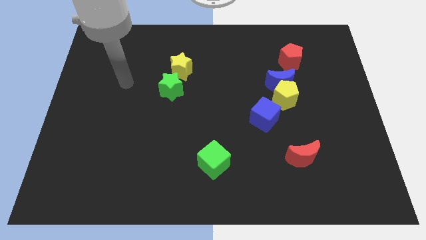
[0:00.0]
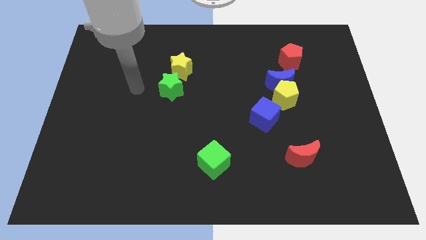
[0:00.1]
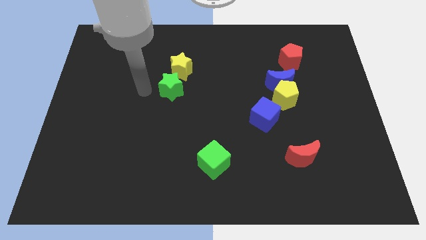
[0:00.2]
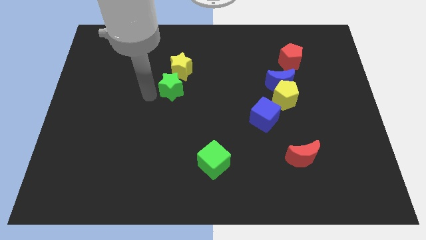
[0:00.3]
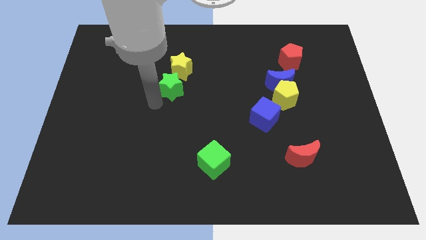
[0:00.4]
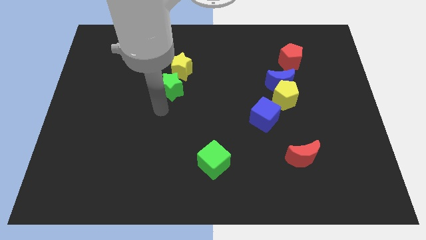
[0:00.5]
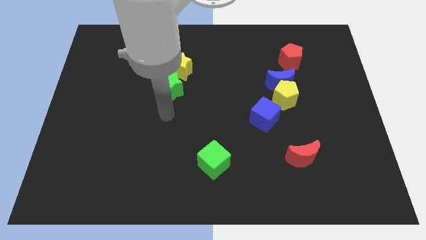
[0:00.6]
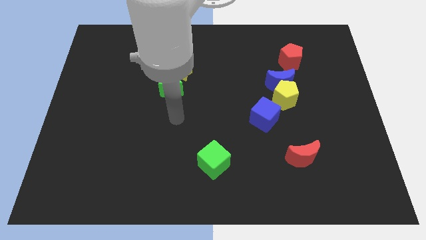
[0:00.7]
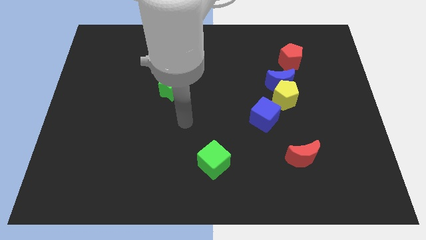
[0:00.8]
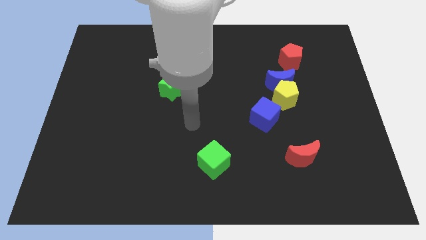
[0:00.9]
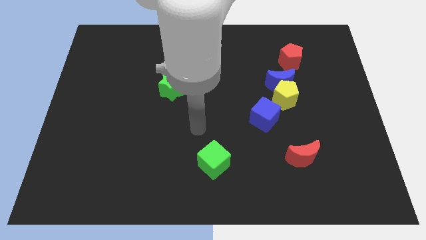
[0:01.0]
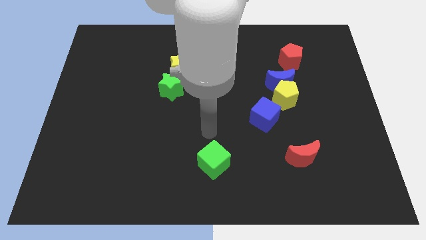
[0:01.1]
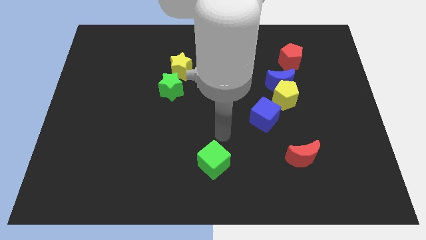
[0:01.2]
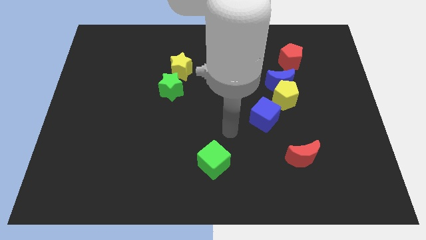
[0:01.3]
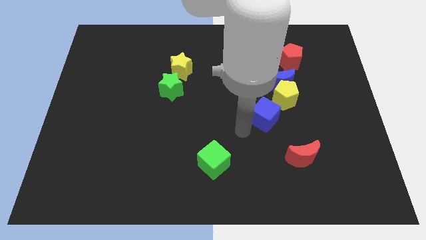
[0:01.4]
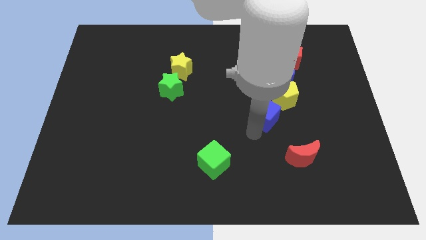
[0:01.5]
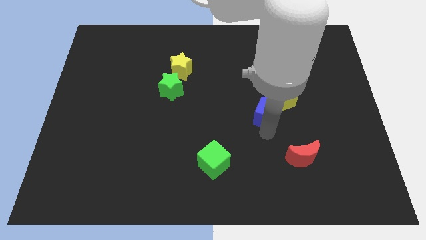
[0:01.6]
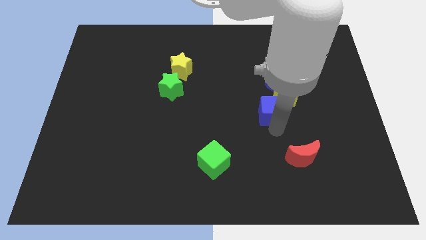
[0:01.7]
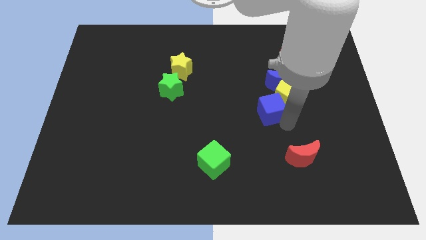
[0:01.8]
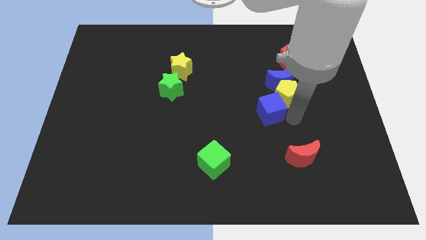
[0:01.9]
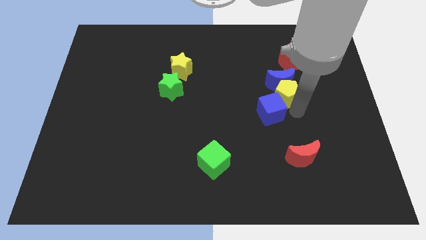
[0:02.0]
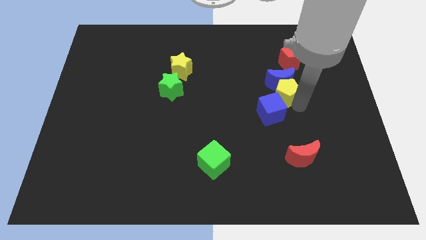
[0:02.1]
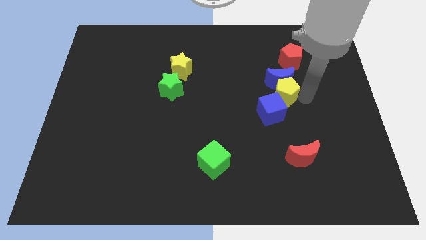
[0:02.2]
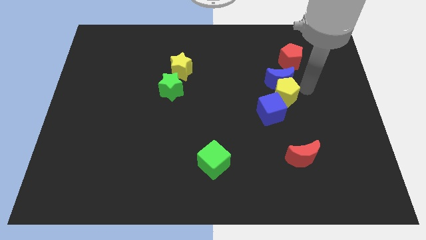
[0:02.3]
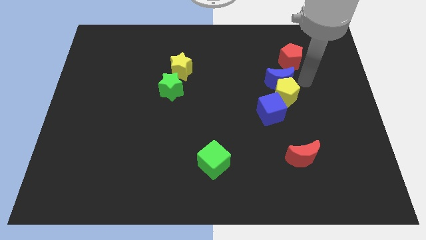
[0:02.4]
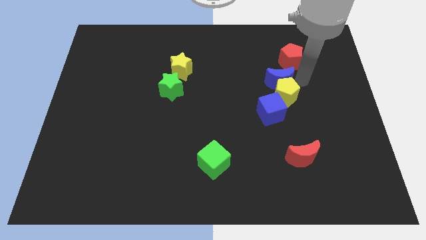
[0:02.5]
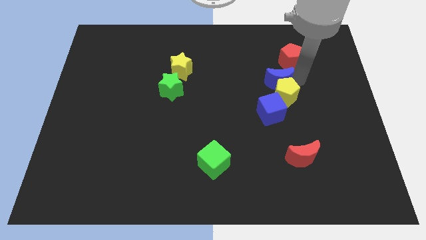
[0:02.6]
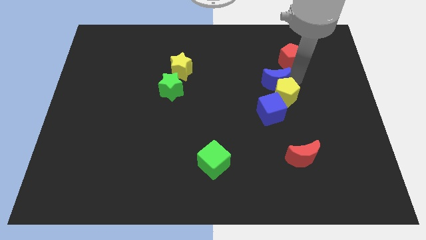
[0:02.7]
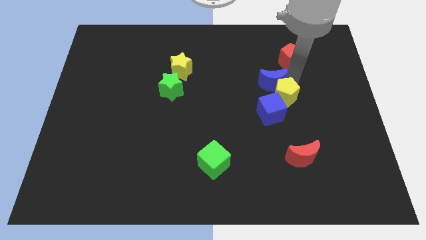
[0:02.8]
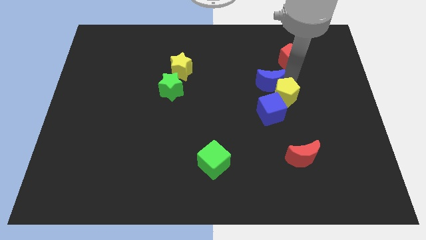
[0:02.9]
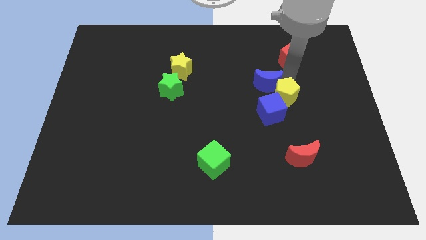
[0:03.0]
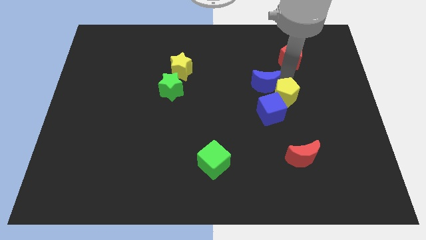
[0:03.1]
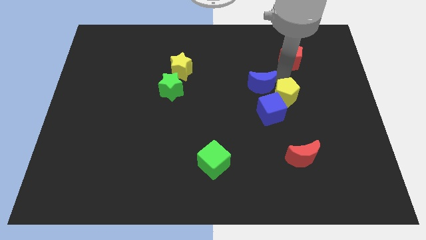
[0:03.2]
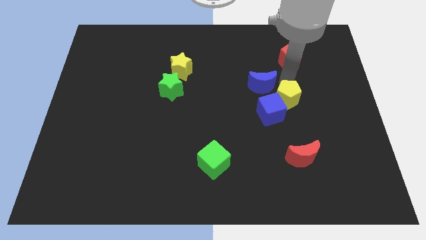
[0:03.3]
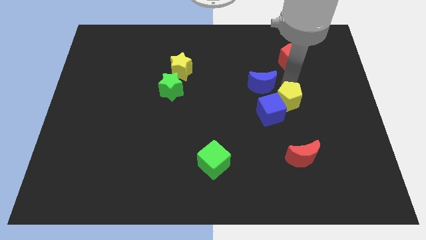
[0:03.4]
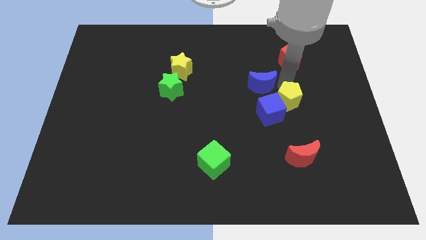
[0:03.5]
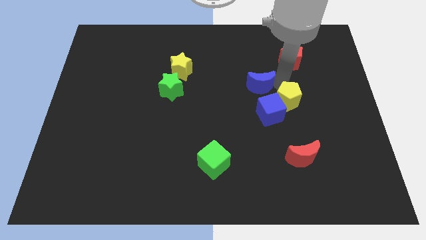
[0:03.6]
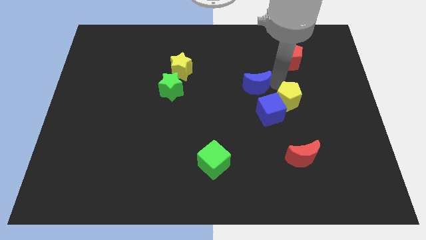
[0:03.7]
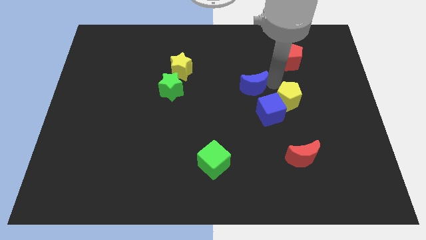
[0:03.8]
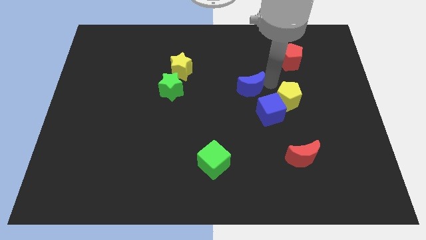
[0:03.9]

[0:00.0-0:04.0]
slide the blue moon slightly left

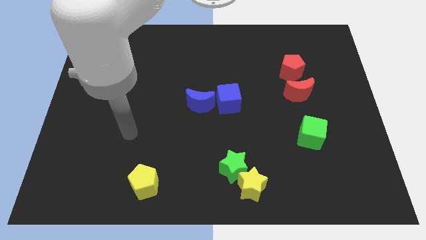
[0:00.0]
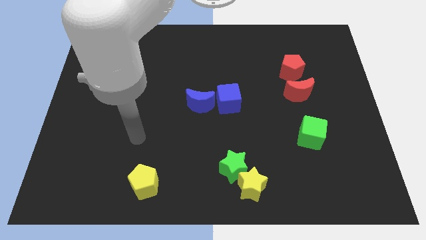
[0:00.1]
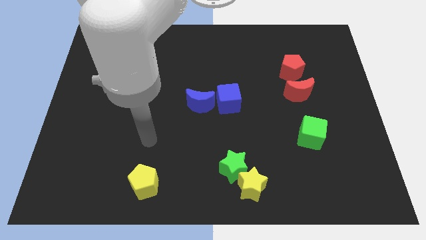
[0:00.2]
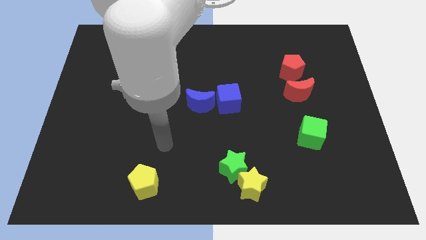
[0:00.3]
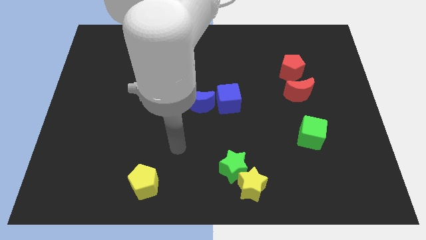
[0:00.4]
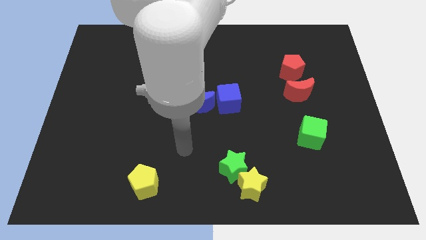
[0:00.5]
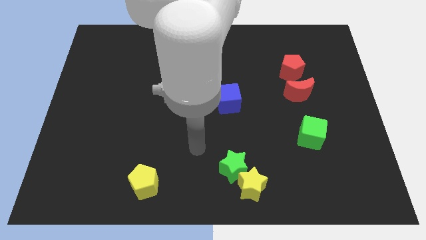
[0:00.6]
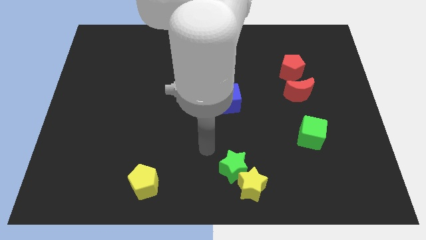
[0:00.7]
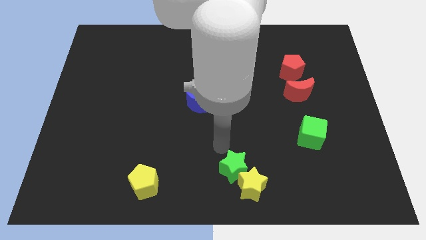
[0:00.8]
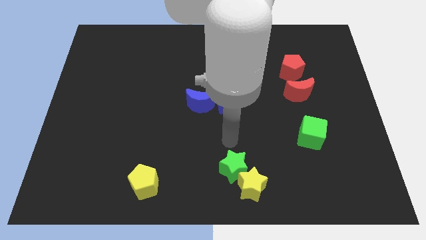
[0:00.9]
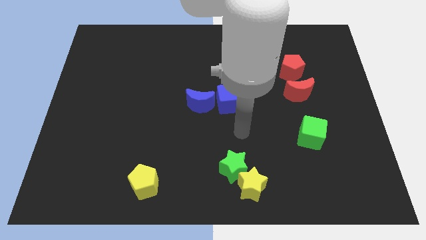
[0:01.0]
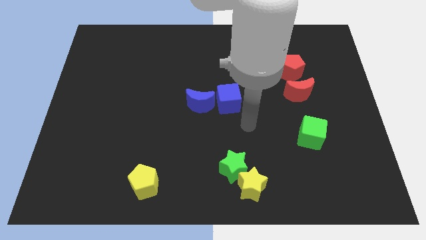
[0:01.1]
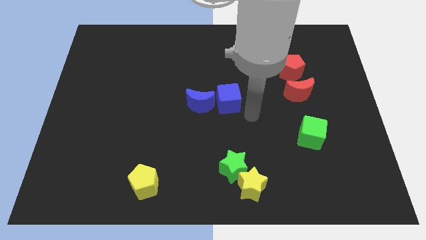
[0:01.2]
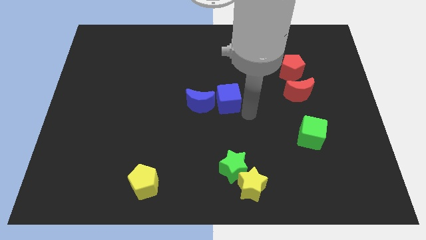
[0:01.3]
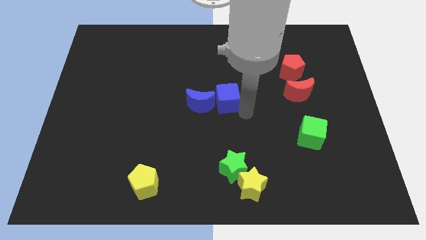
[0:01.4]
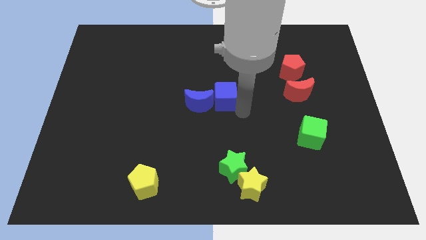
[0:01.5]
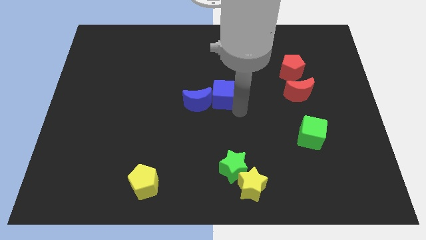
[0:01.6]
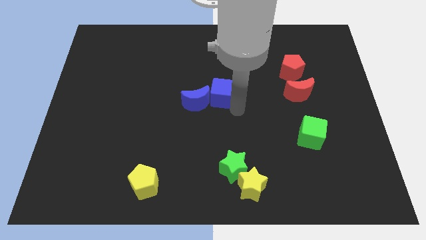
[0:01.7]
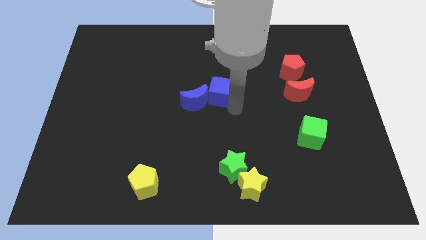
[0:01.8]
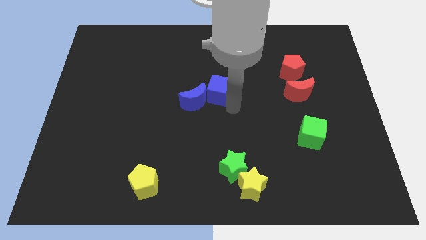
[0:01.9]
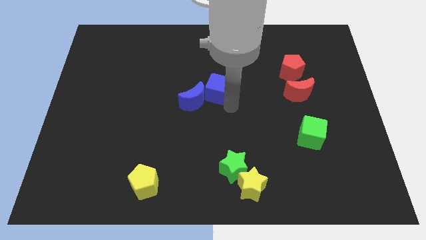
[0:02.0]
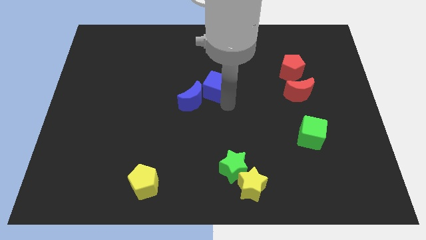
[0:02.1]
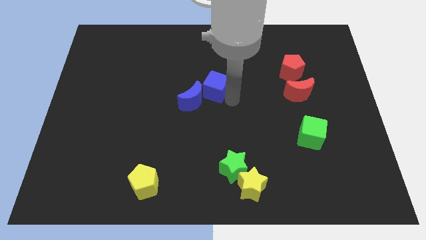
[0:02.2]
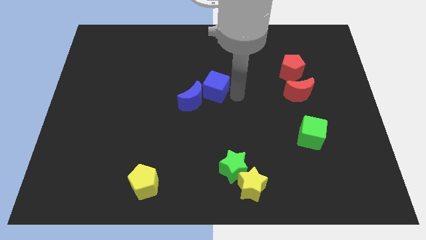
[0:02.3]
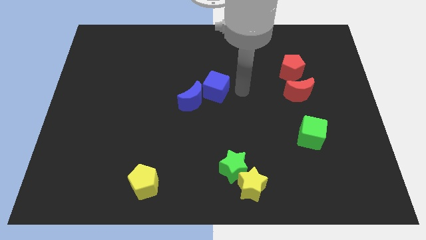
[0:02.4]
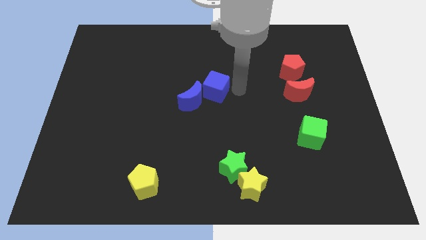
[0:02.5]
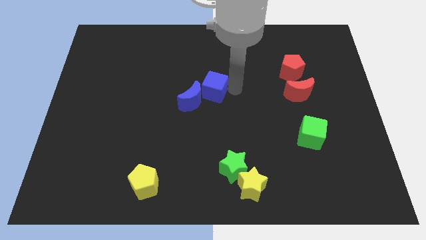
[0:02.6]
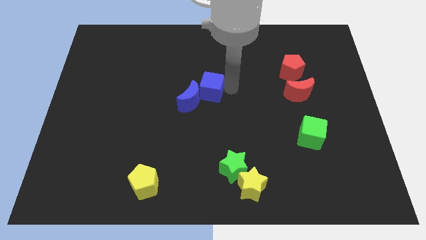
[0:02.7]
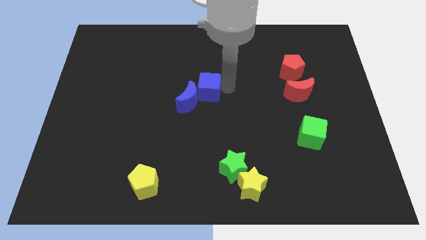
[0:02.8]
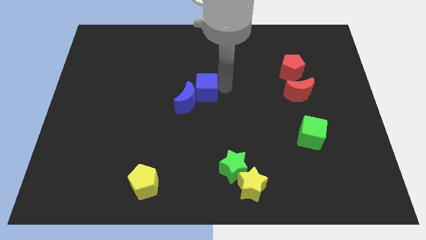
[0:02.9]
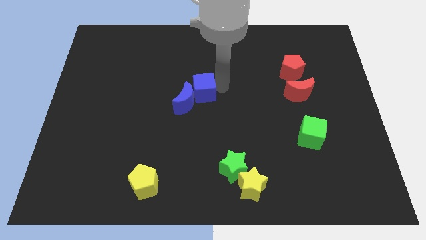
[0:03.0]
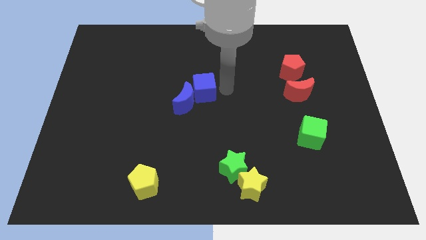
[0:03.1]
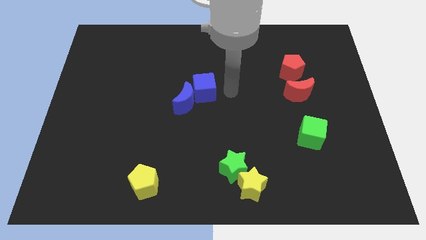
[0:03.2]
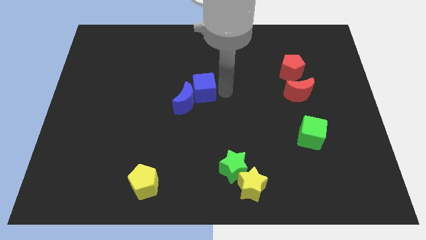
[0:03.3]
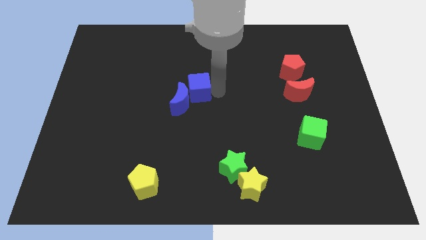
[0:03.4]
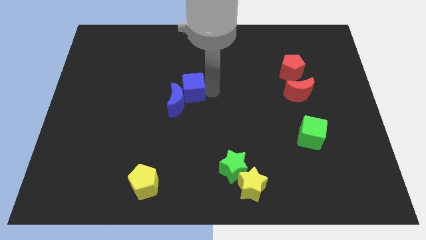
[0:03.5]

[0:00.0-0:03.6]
slide the blue cube left a little bit
